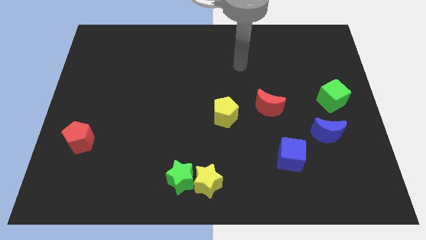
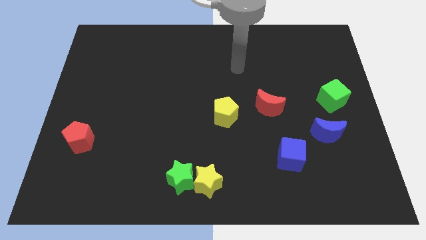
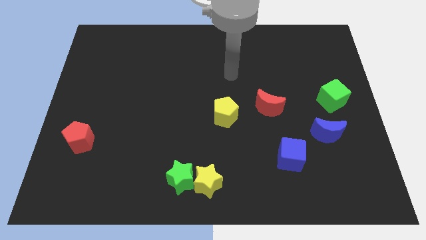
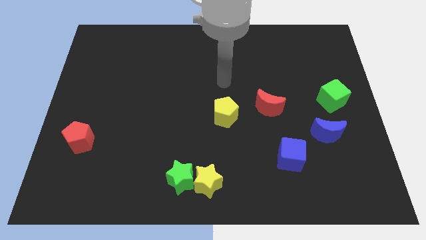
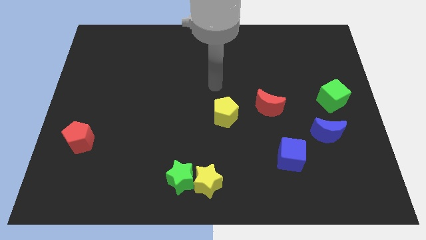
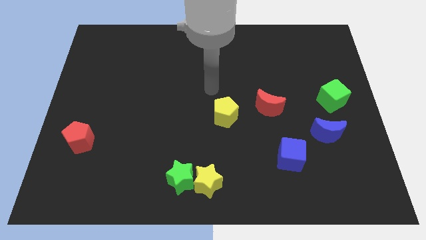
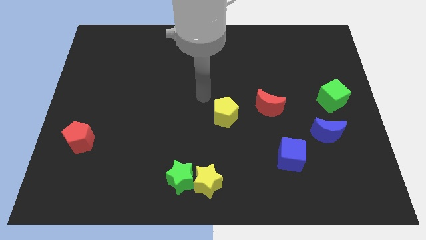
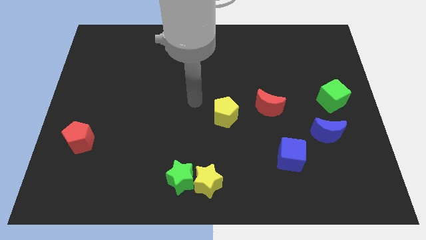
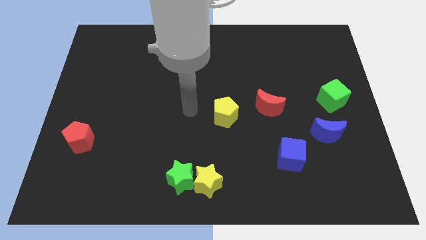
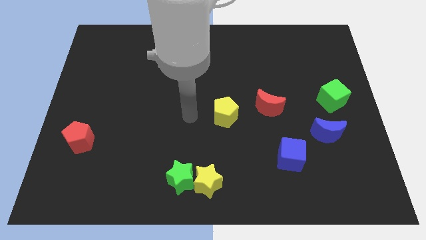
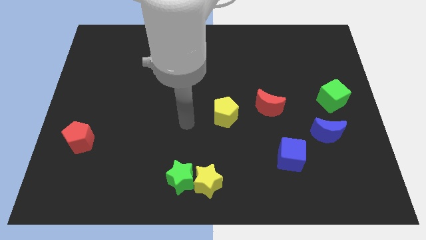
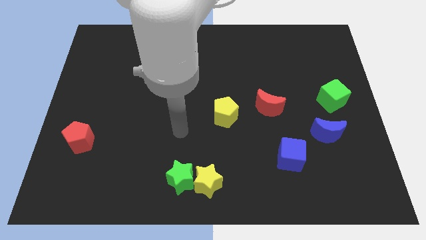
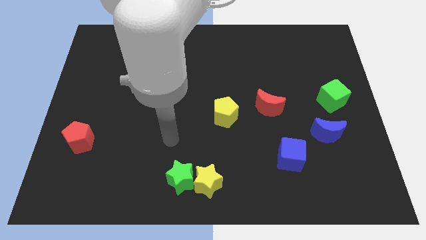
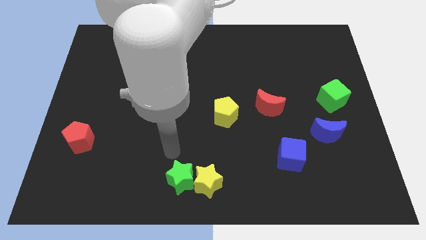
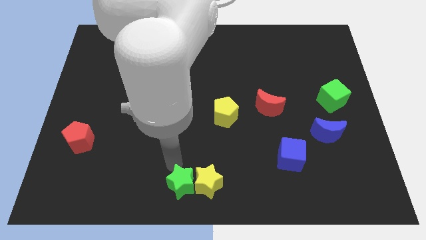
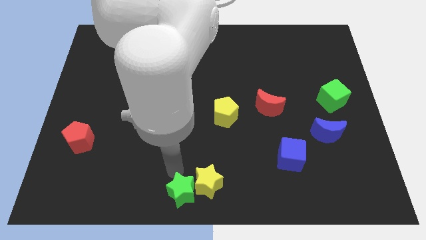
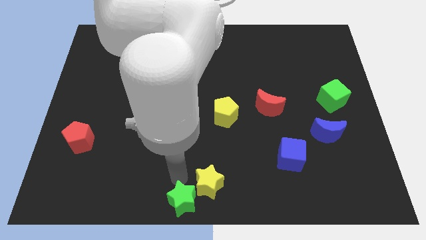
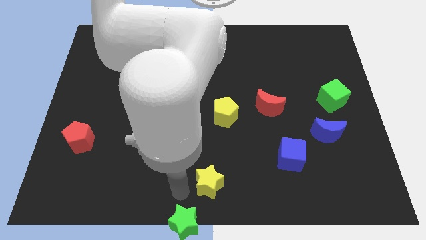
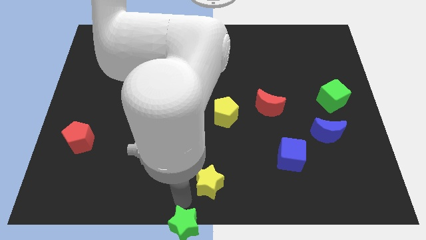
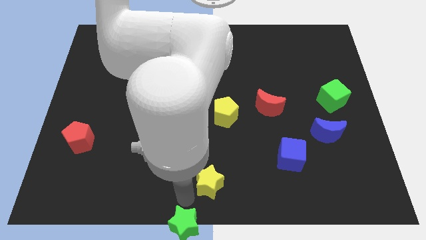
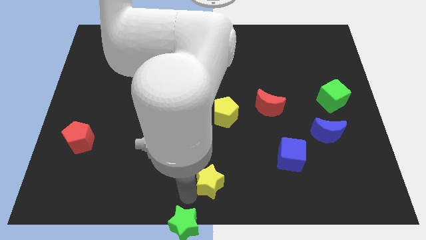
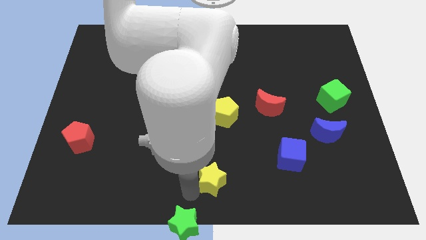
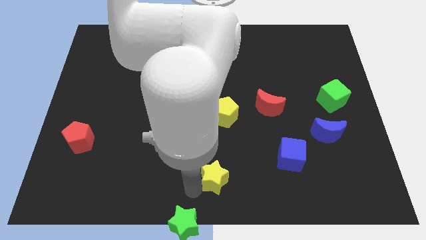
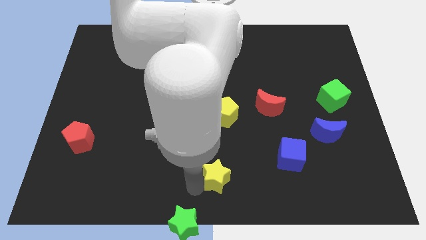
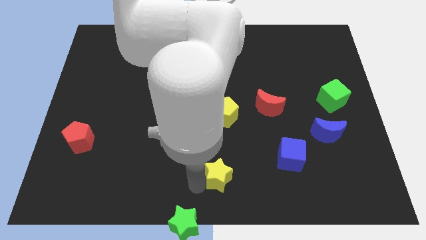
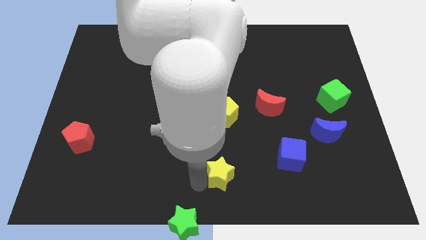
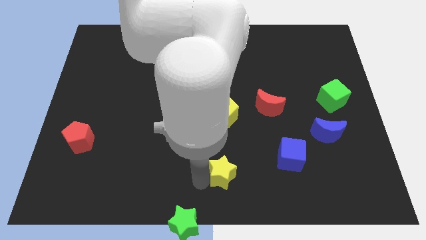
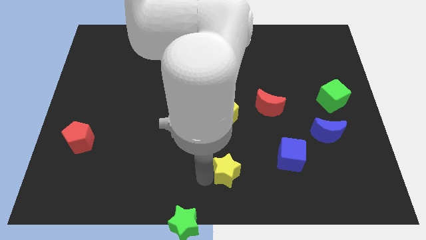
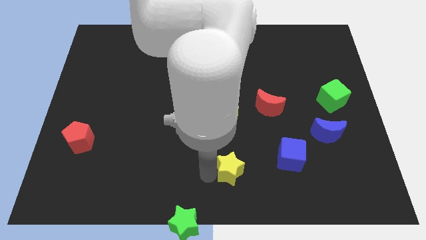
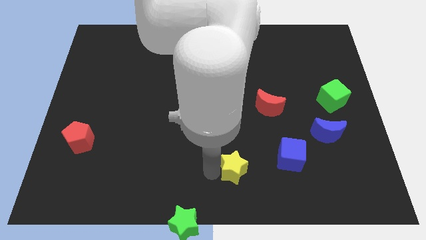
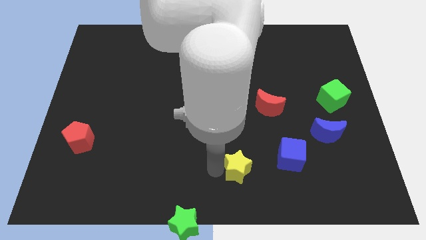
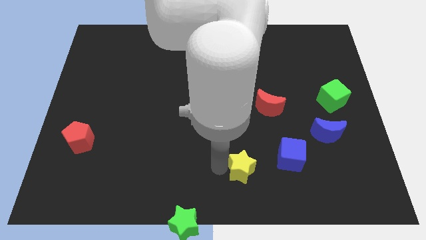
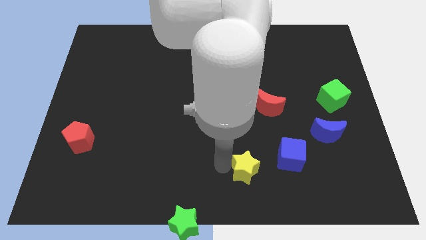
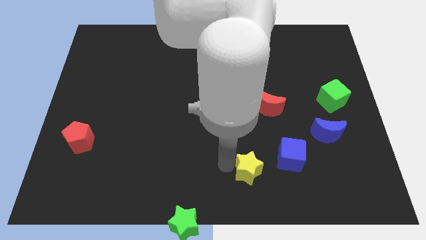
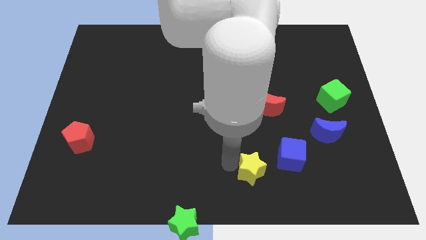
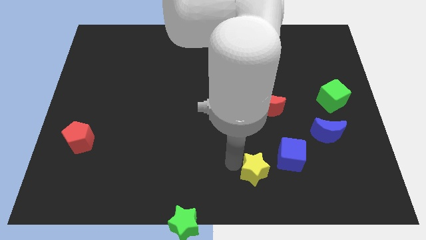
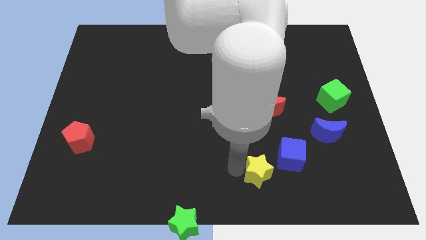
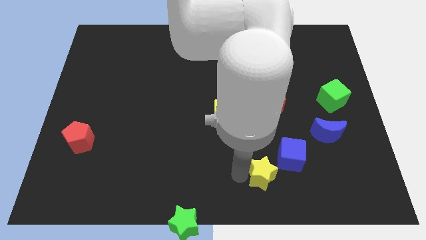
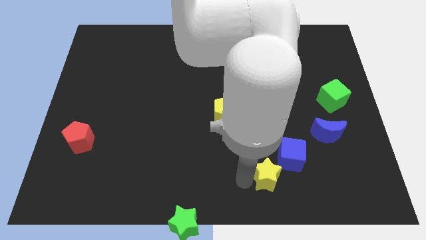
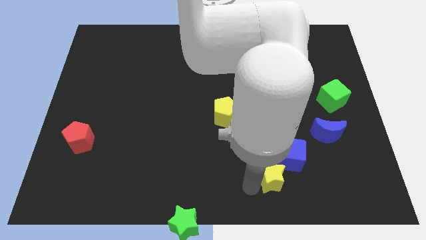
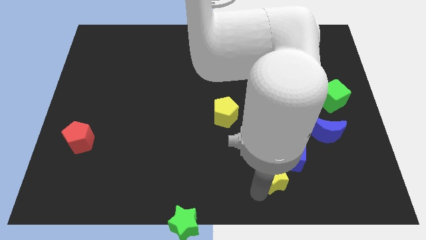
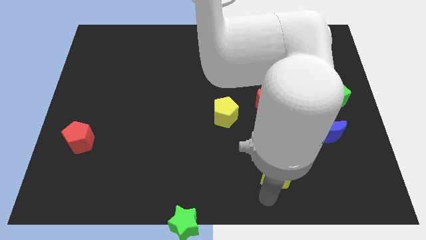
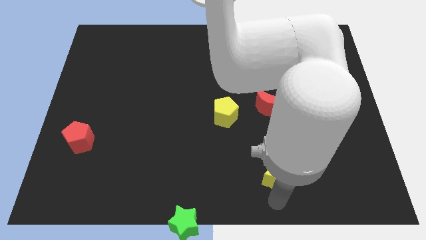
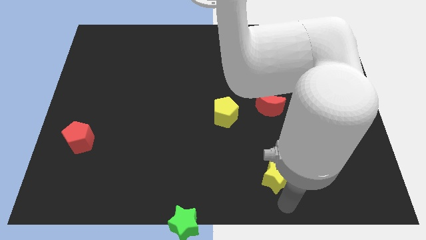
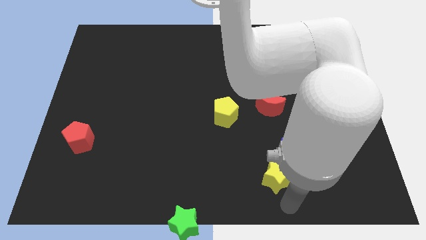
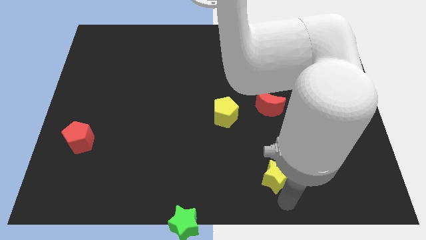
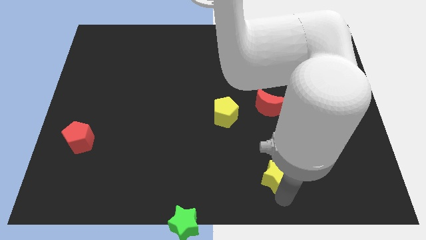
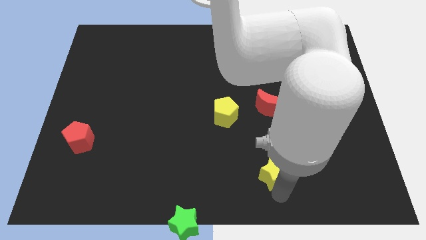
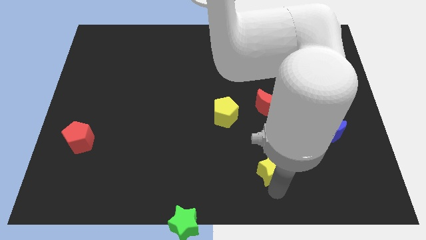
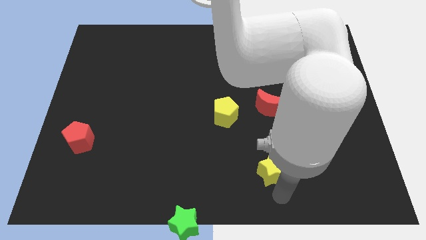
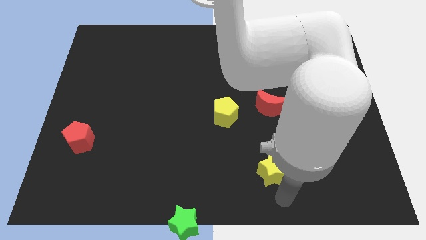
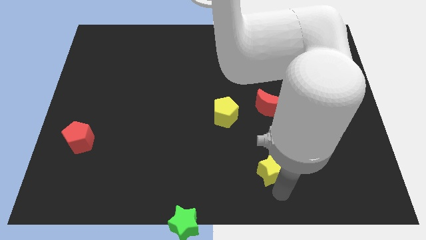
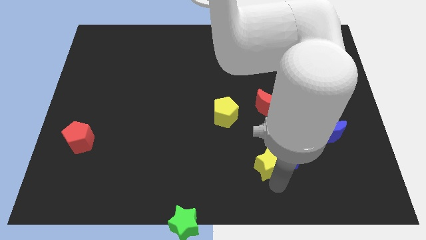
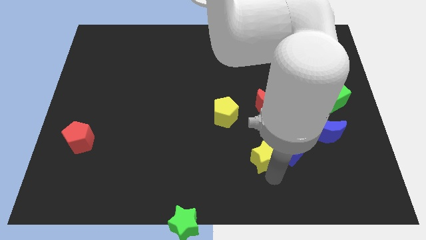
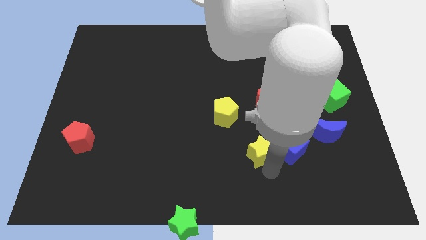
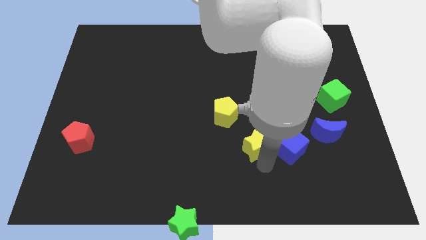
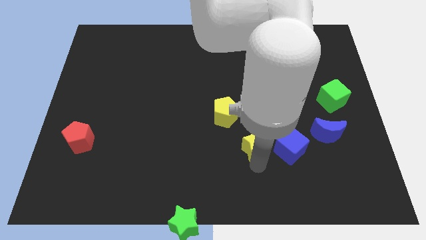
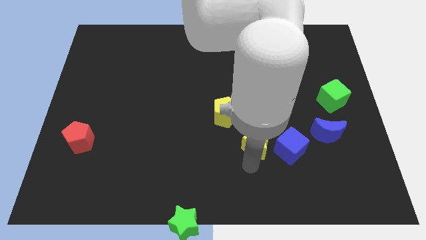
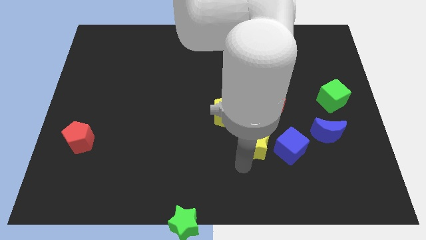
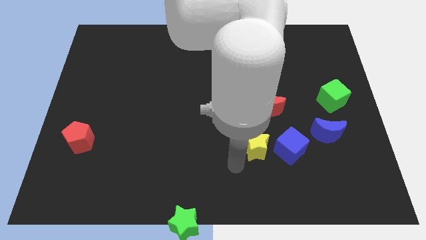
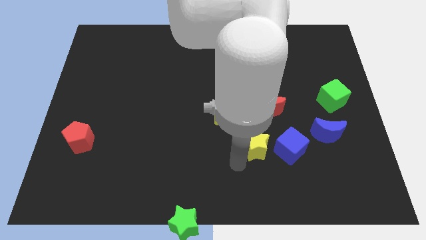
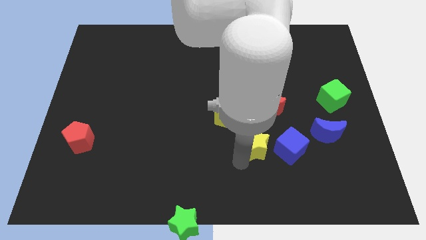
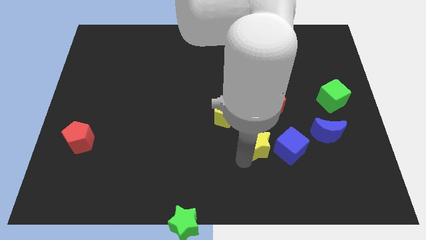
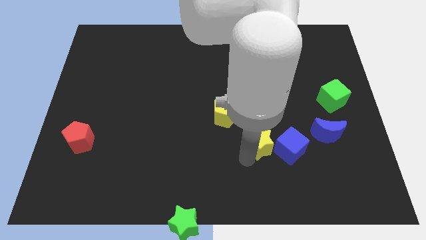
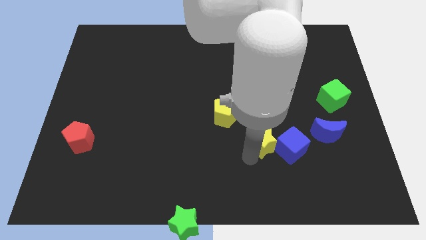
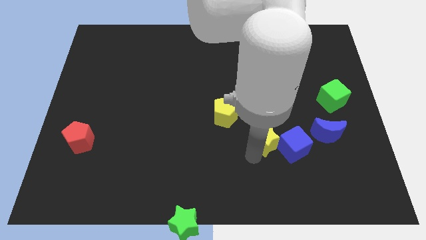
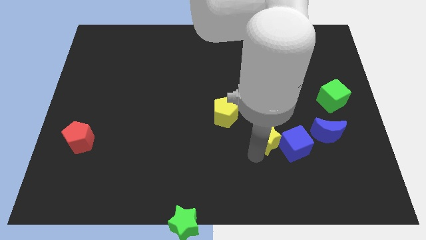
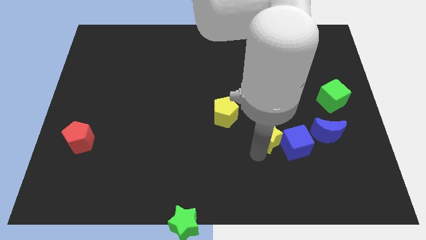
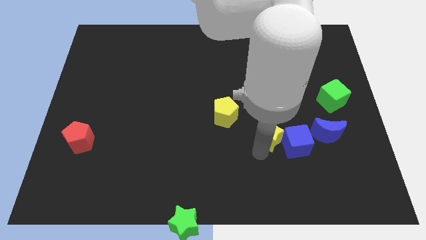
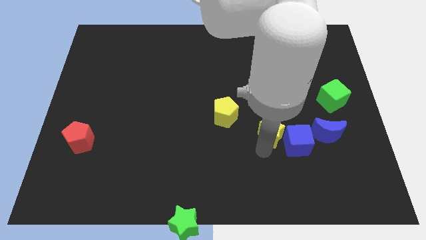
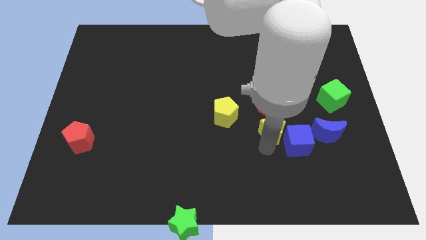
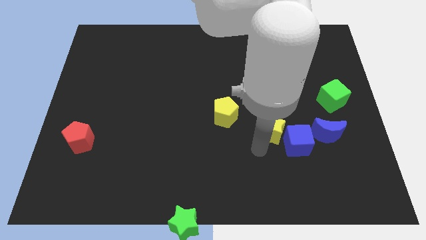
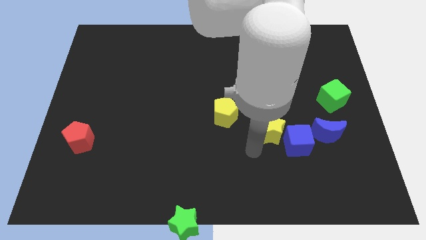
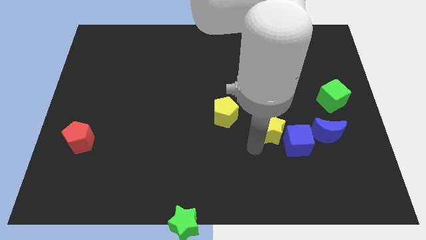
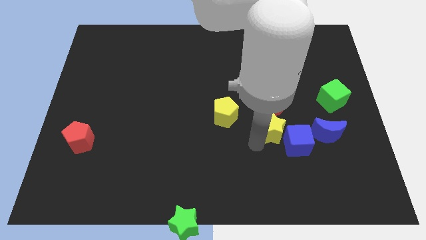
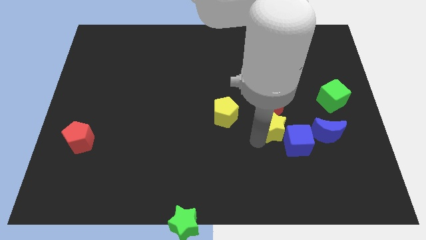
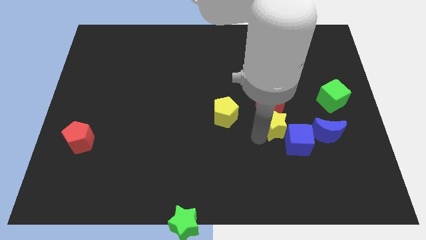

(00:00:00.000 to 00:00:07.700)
move the yellow star upwards and then to the right

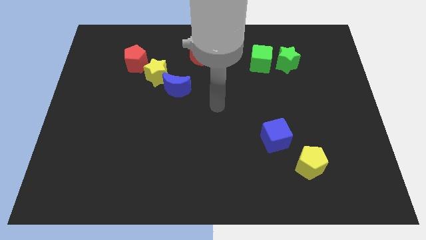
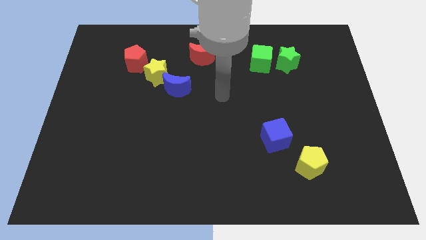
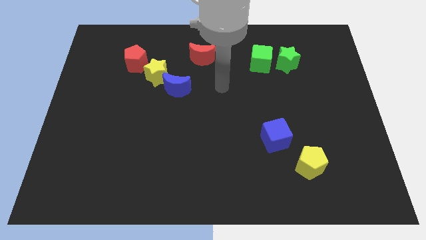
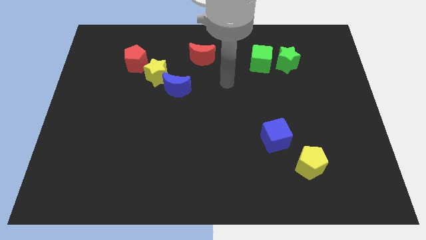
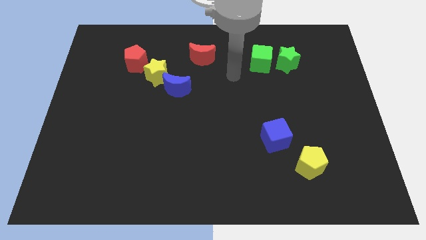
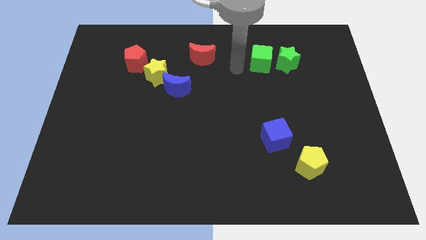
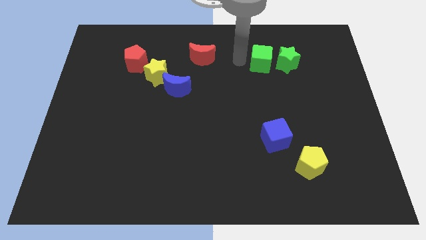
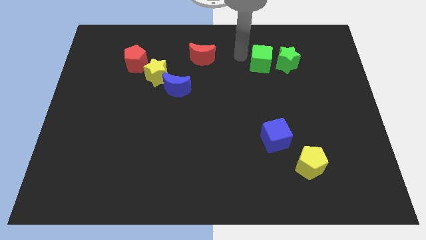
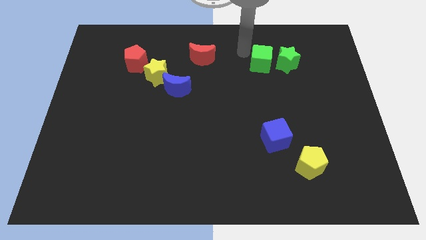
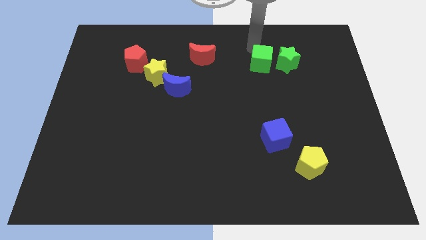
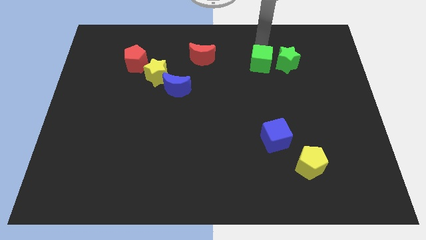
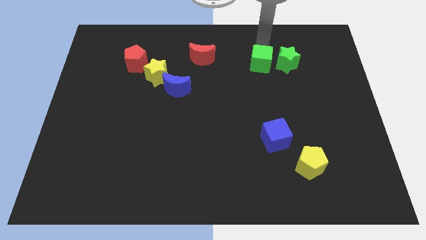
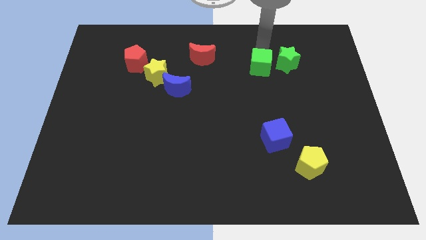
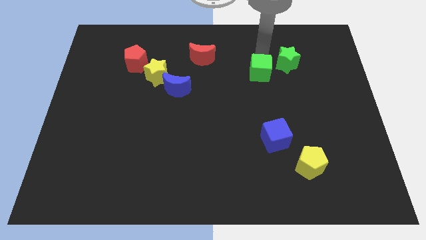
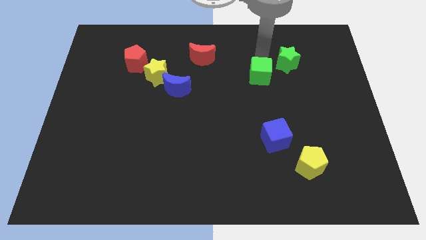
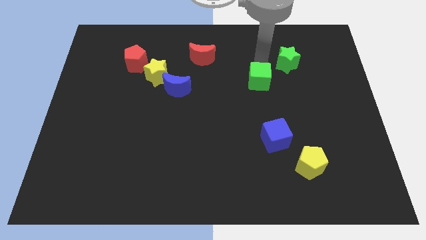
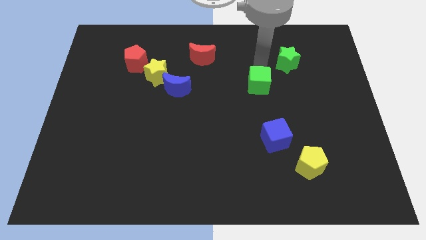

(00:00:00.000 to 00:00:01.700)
slightly move the green cube downwards
